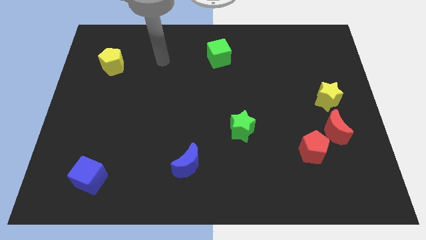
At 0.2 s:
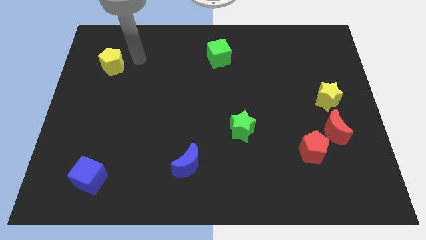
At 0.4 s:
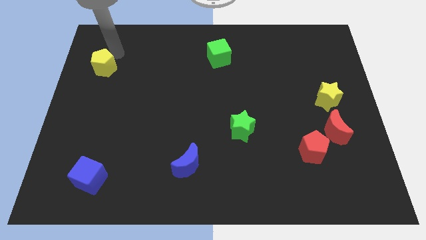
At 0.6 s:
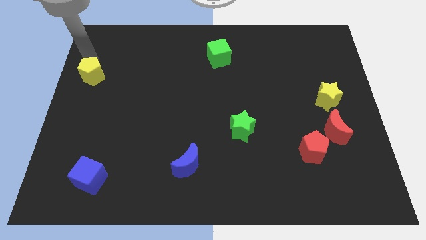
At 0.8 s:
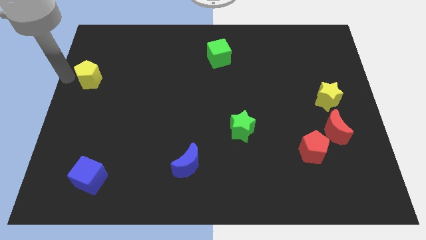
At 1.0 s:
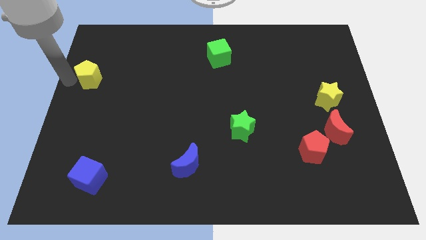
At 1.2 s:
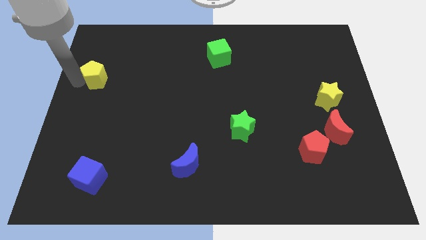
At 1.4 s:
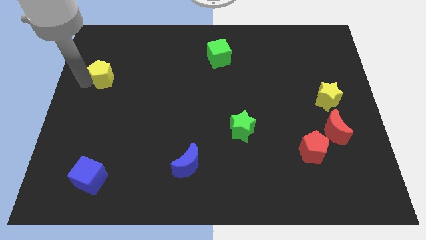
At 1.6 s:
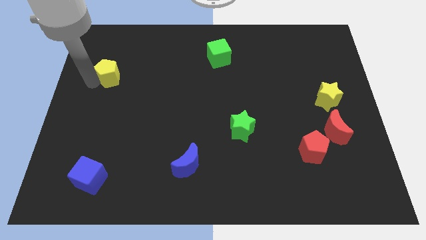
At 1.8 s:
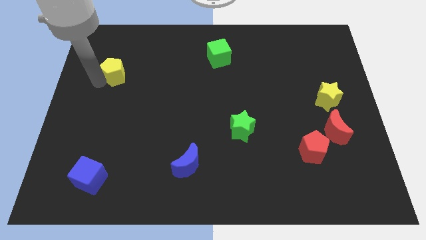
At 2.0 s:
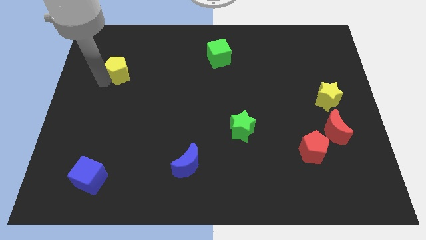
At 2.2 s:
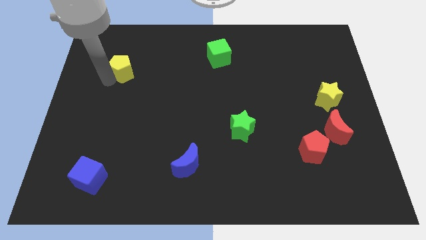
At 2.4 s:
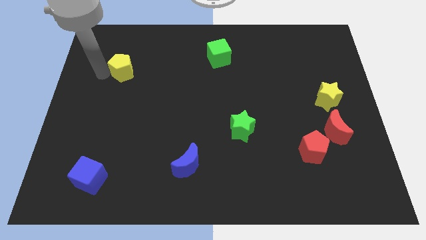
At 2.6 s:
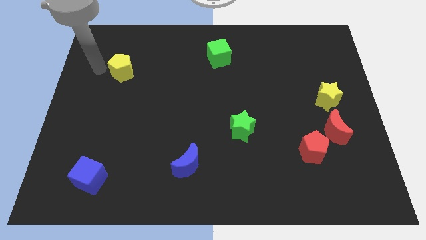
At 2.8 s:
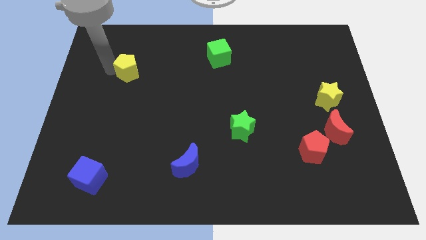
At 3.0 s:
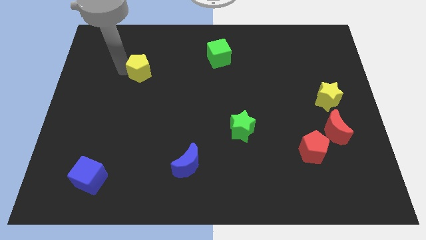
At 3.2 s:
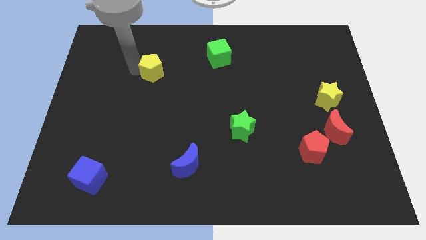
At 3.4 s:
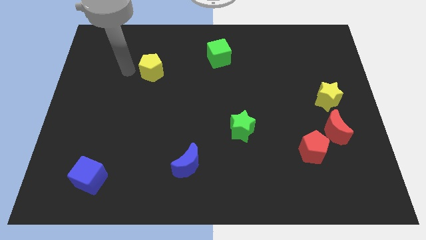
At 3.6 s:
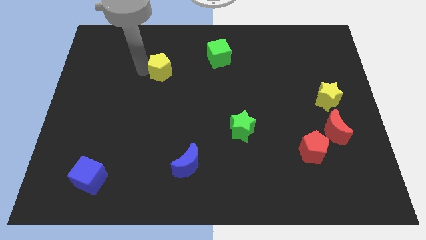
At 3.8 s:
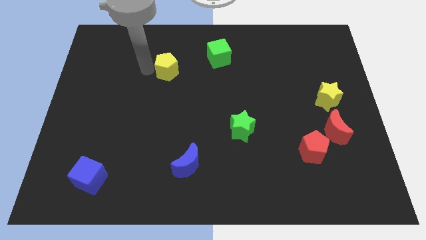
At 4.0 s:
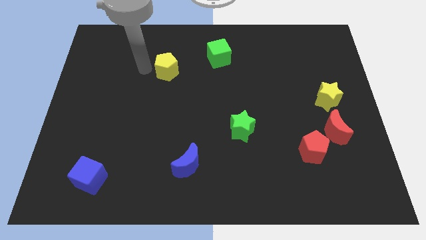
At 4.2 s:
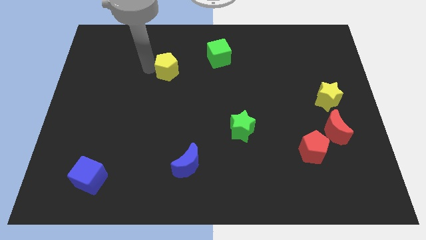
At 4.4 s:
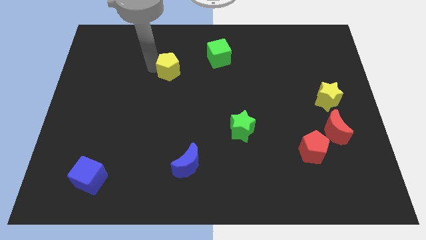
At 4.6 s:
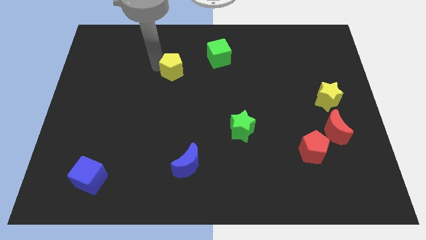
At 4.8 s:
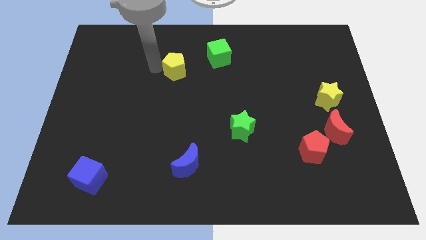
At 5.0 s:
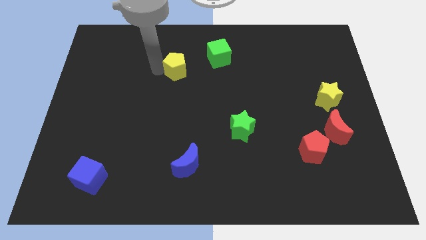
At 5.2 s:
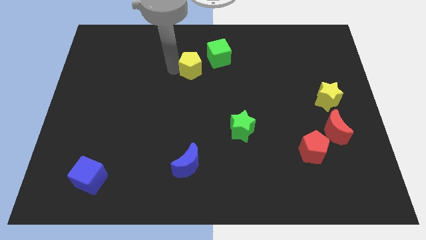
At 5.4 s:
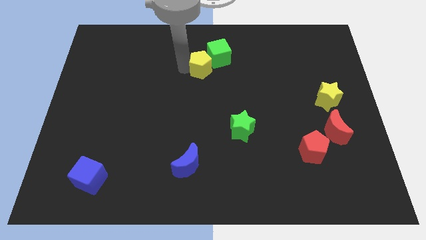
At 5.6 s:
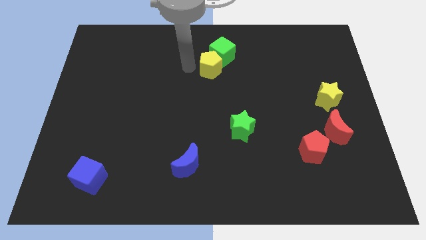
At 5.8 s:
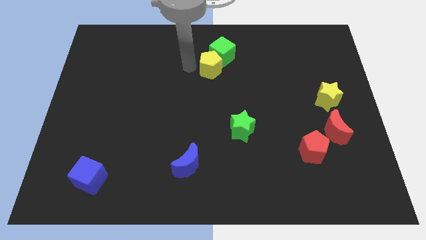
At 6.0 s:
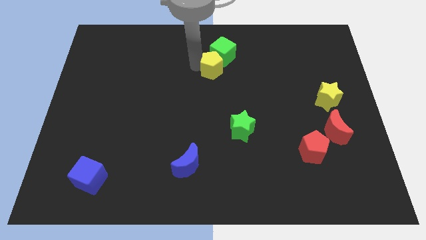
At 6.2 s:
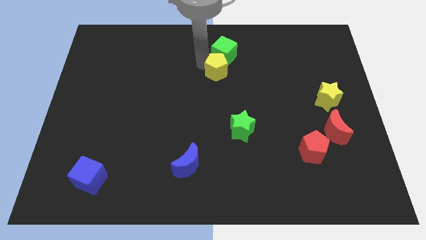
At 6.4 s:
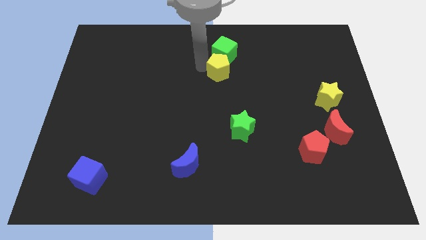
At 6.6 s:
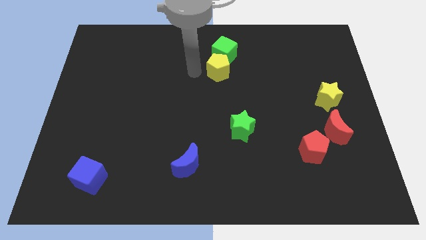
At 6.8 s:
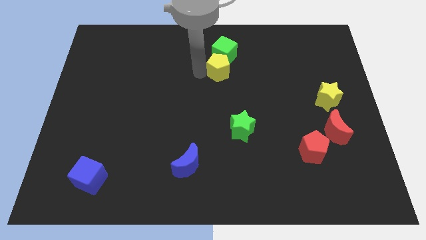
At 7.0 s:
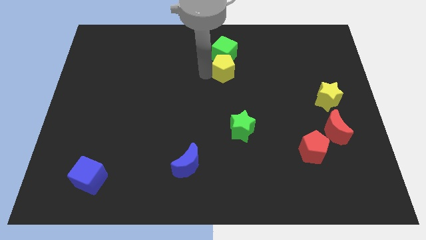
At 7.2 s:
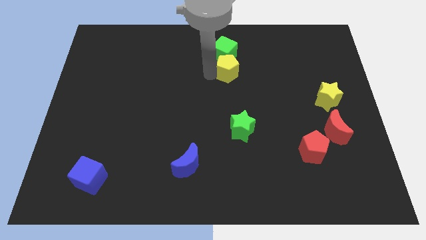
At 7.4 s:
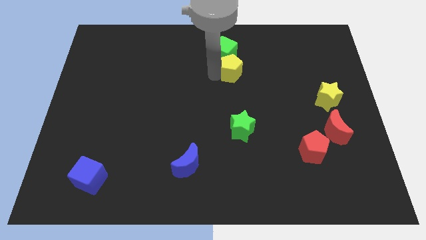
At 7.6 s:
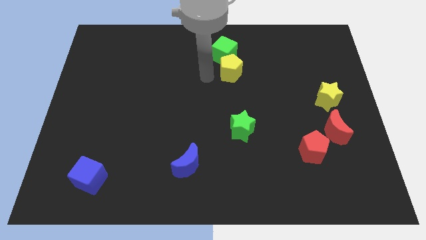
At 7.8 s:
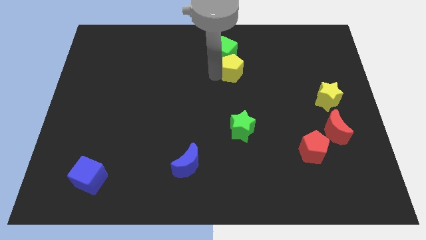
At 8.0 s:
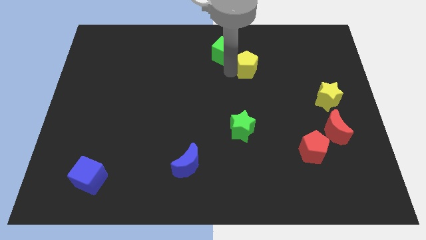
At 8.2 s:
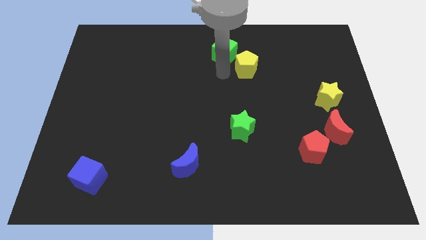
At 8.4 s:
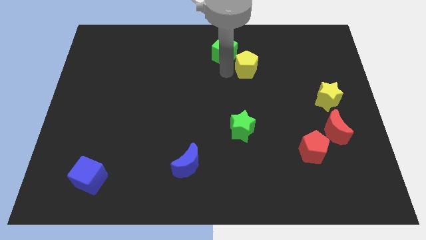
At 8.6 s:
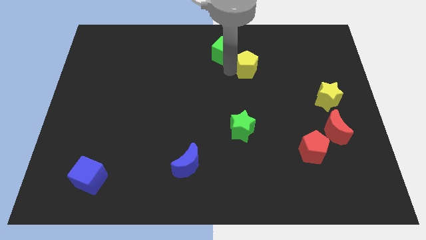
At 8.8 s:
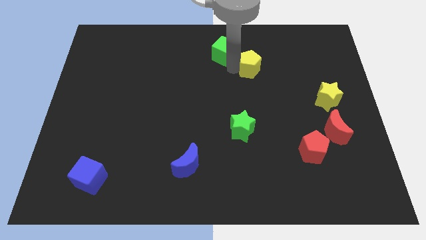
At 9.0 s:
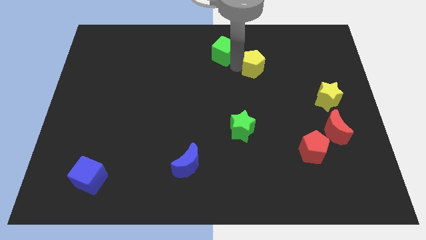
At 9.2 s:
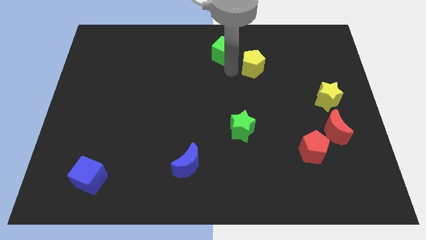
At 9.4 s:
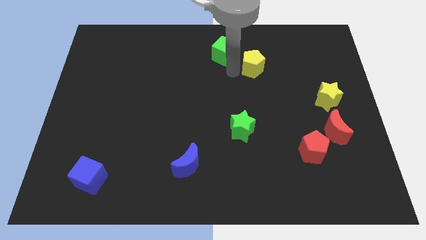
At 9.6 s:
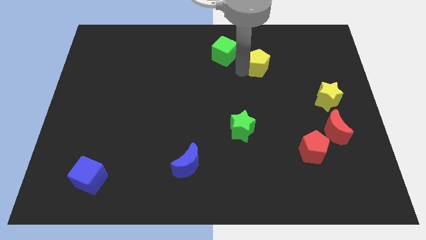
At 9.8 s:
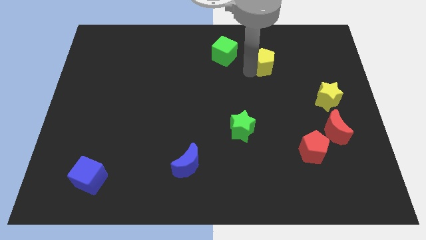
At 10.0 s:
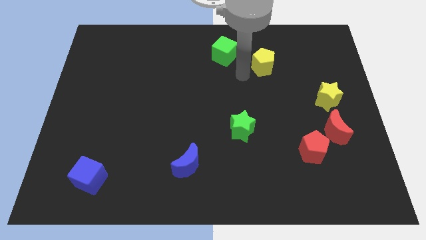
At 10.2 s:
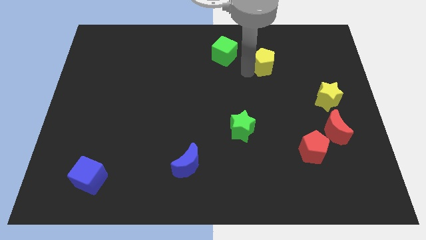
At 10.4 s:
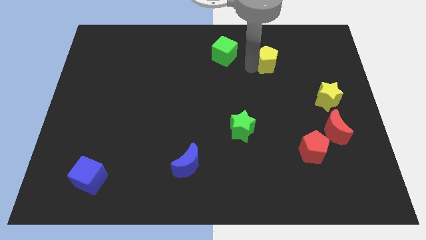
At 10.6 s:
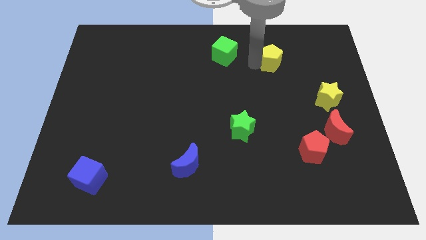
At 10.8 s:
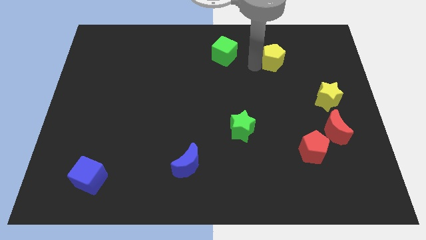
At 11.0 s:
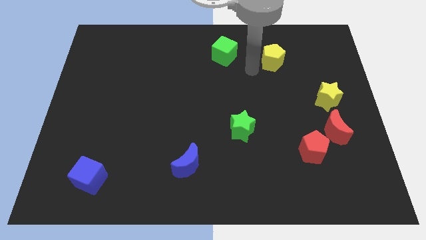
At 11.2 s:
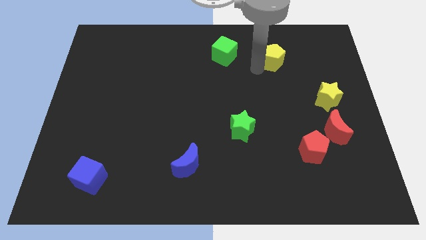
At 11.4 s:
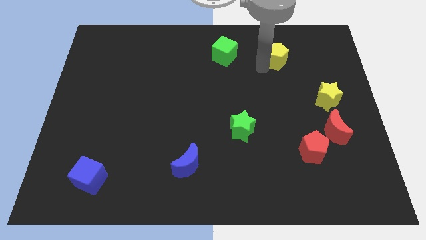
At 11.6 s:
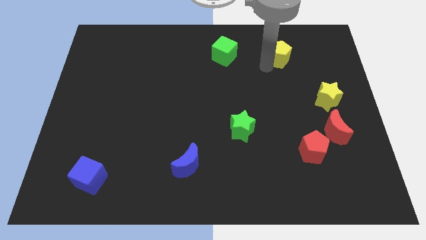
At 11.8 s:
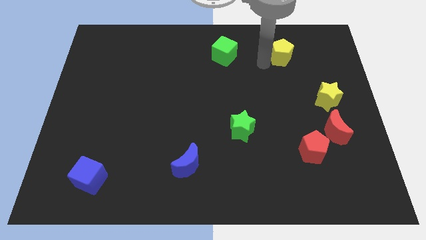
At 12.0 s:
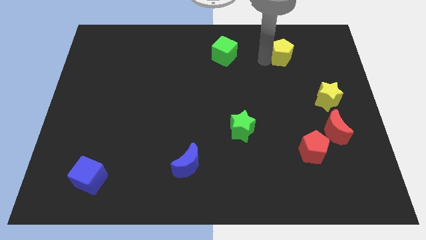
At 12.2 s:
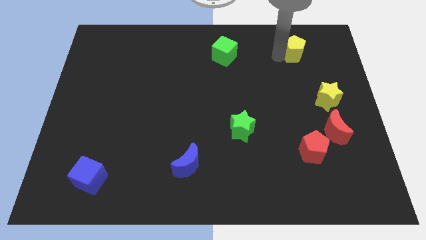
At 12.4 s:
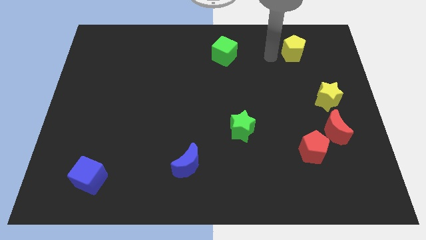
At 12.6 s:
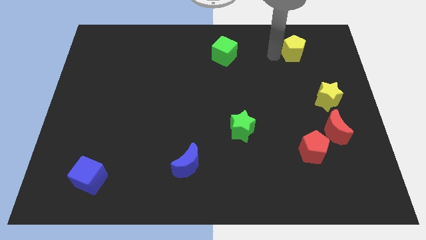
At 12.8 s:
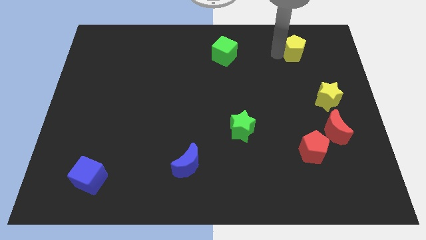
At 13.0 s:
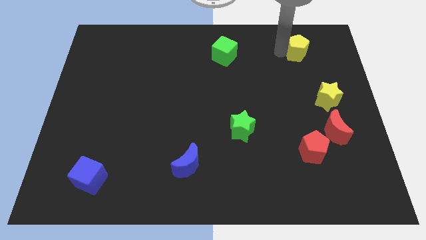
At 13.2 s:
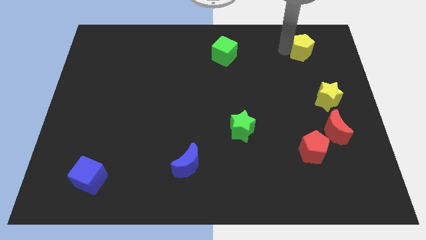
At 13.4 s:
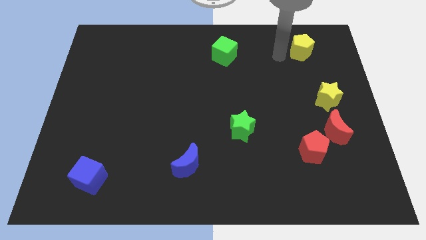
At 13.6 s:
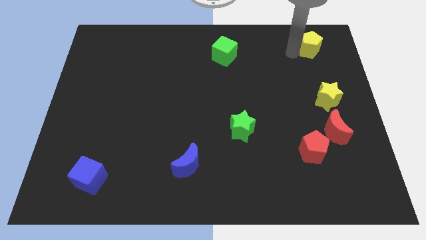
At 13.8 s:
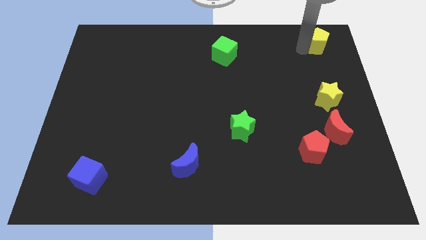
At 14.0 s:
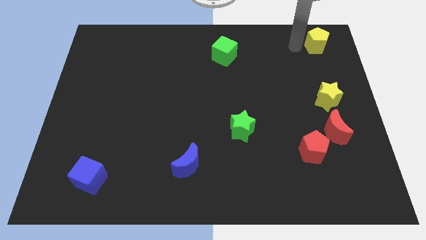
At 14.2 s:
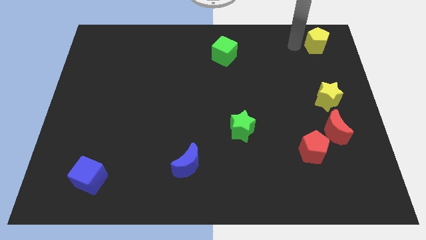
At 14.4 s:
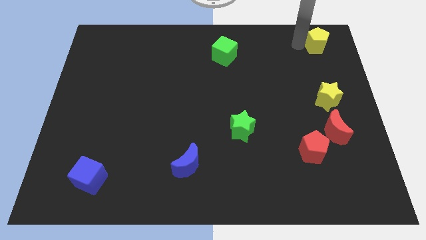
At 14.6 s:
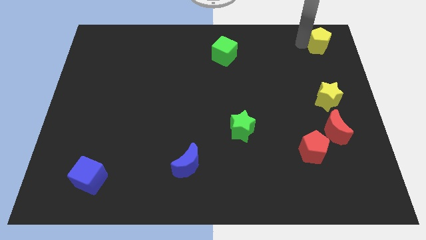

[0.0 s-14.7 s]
push the yellow pentagon to the top right

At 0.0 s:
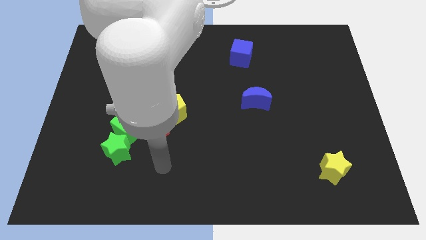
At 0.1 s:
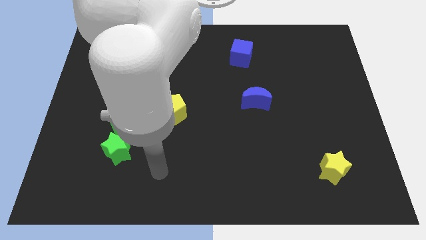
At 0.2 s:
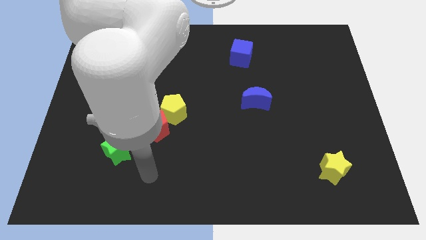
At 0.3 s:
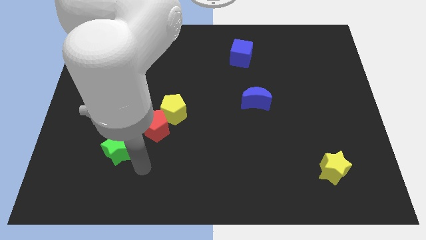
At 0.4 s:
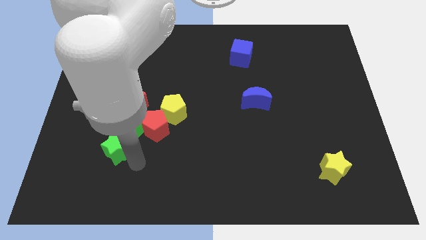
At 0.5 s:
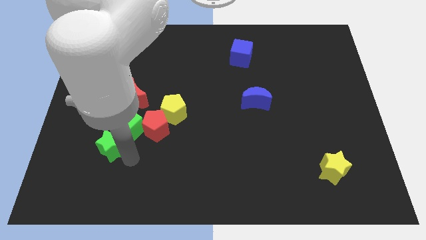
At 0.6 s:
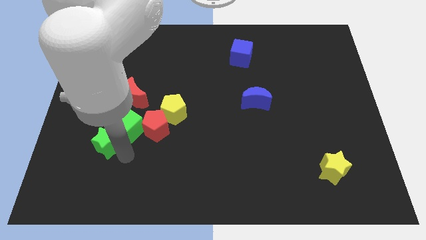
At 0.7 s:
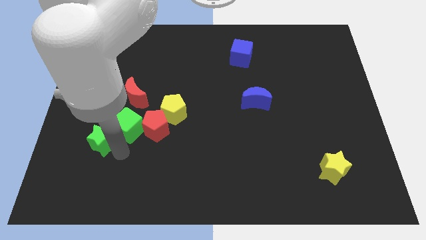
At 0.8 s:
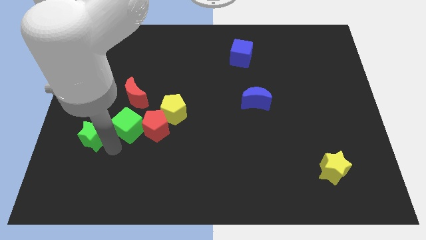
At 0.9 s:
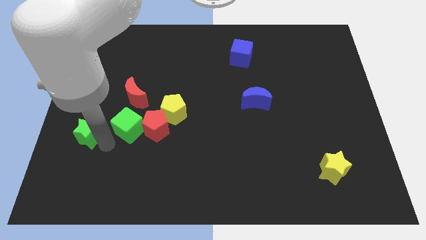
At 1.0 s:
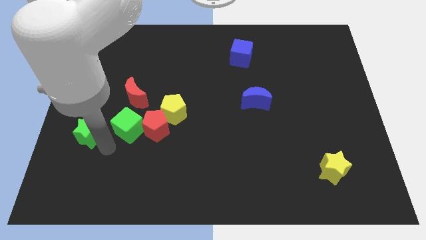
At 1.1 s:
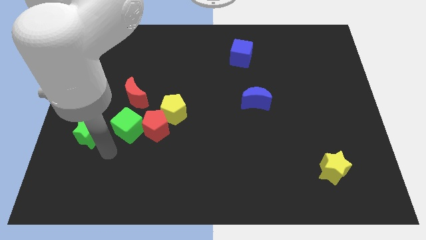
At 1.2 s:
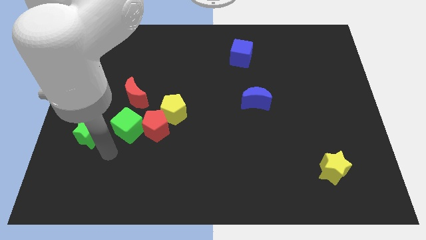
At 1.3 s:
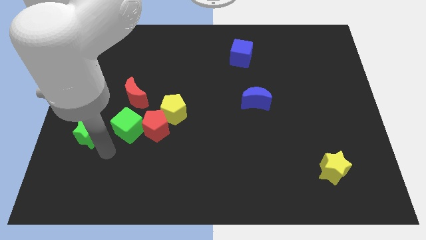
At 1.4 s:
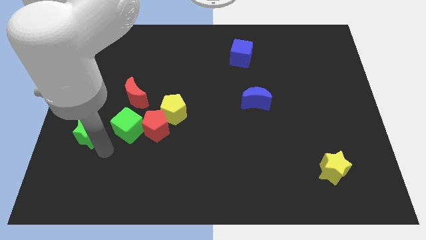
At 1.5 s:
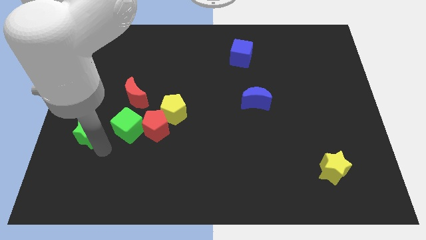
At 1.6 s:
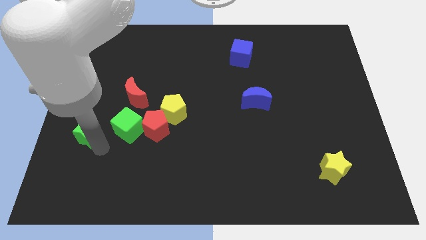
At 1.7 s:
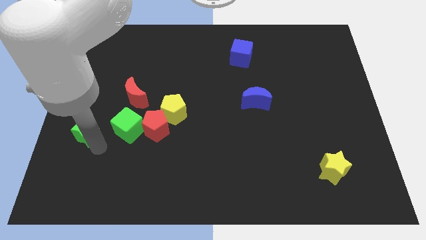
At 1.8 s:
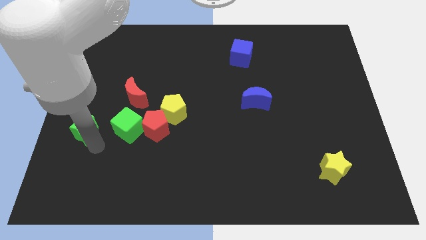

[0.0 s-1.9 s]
put the green star to the left side
